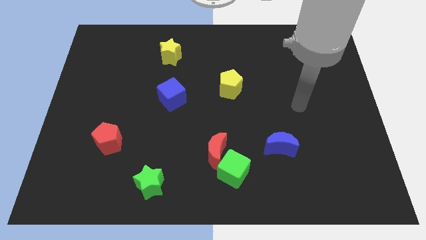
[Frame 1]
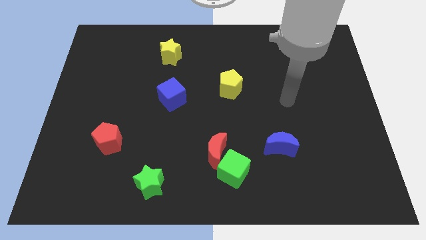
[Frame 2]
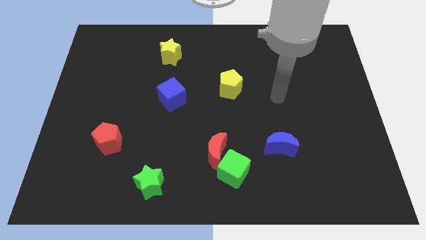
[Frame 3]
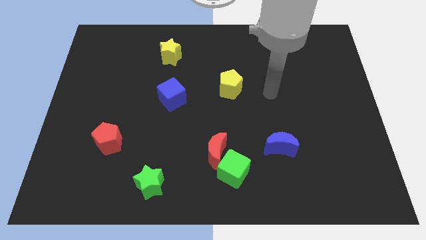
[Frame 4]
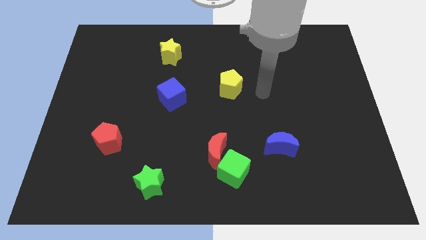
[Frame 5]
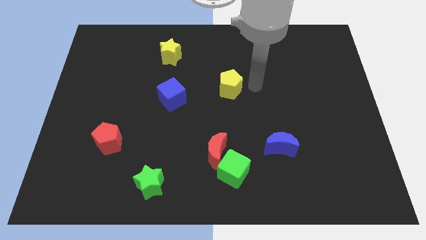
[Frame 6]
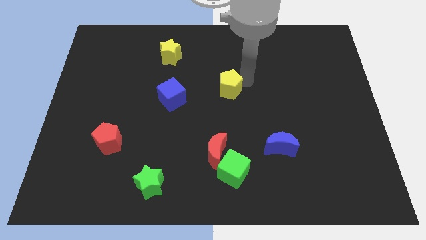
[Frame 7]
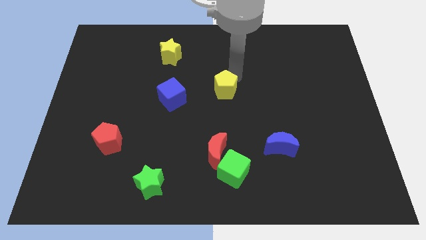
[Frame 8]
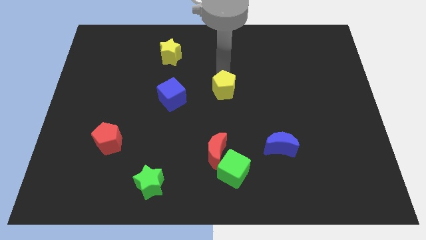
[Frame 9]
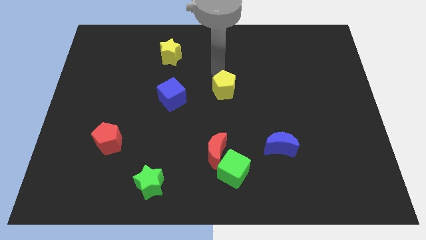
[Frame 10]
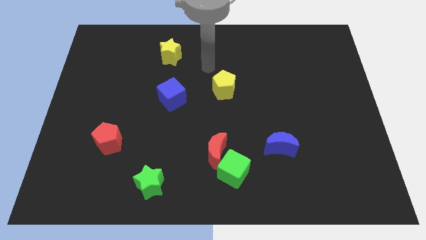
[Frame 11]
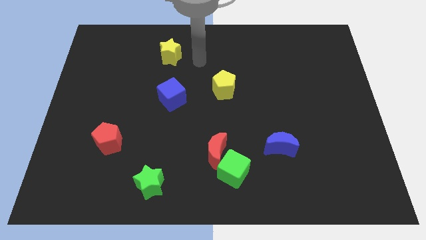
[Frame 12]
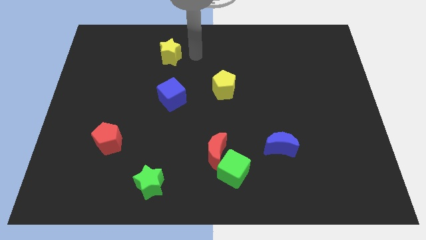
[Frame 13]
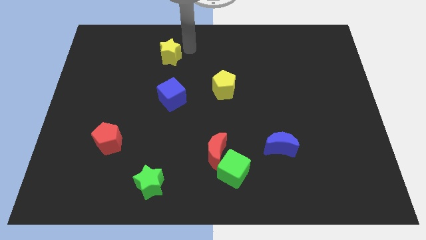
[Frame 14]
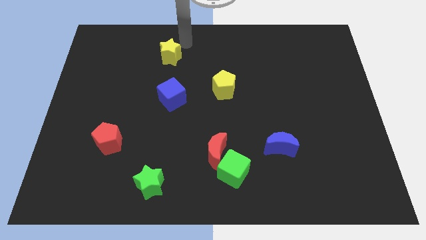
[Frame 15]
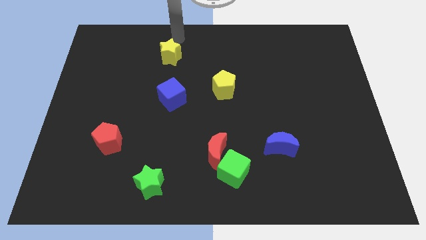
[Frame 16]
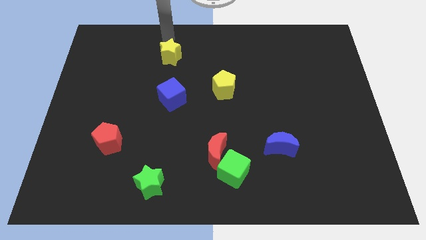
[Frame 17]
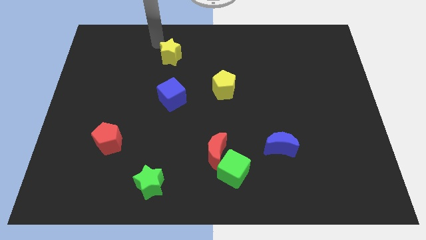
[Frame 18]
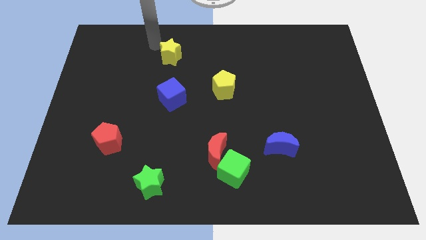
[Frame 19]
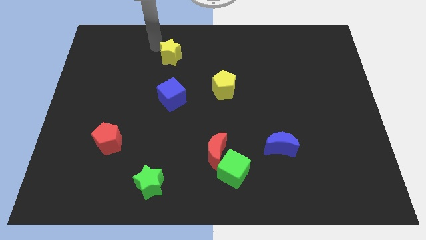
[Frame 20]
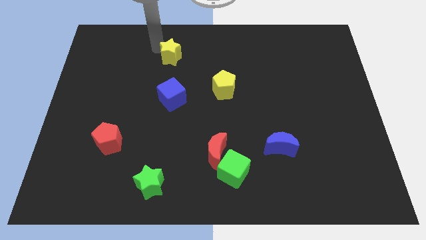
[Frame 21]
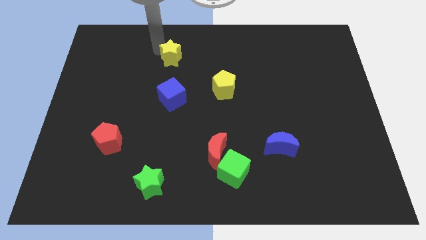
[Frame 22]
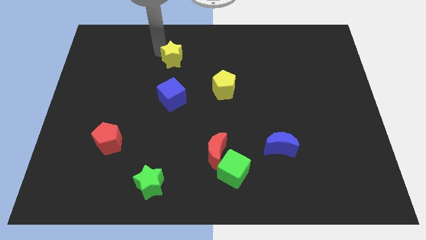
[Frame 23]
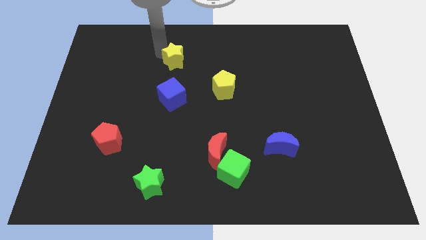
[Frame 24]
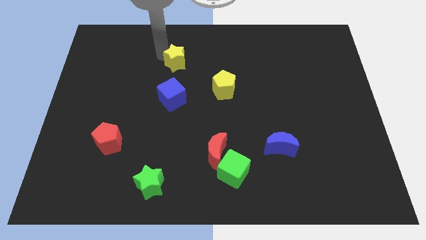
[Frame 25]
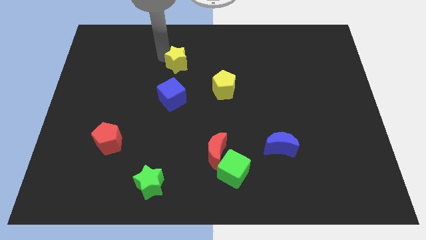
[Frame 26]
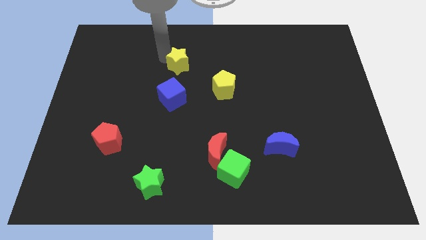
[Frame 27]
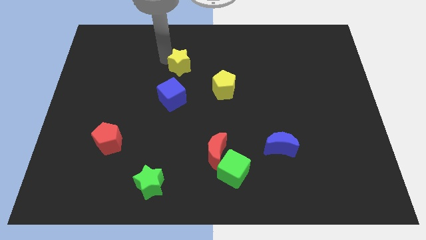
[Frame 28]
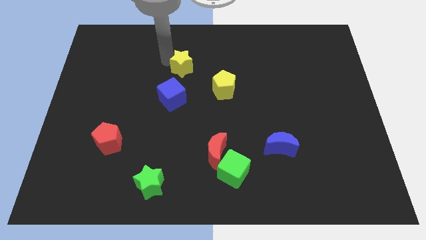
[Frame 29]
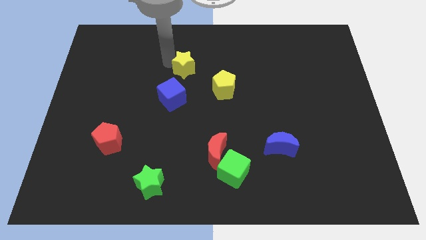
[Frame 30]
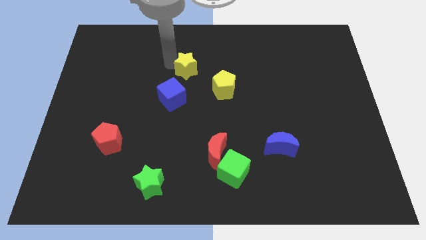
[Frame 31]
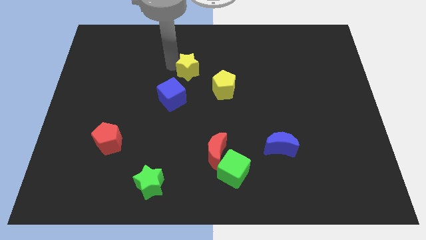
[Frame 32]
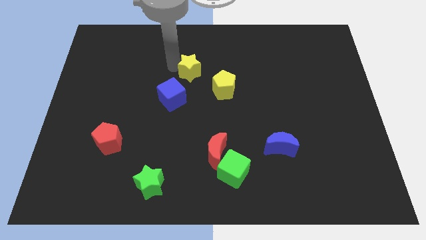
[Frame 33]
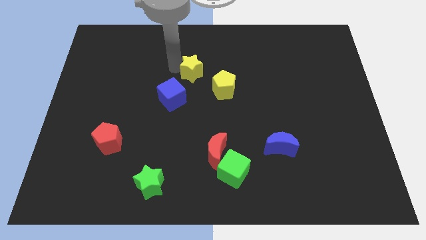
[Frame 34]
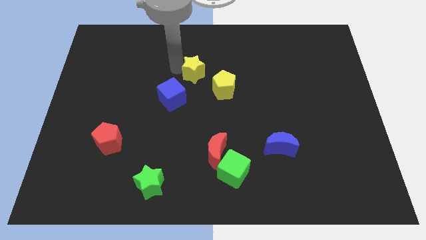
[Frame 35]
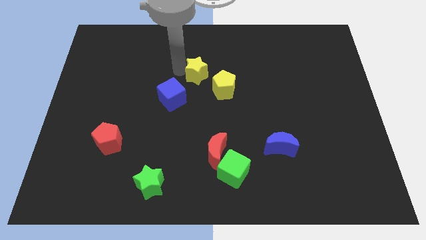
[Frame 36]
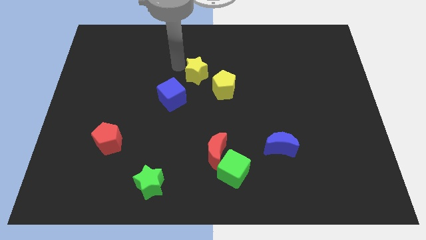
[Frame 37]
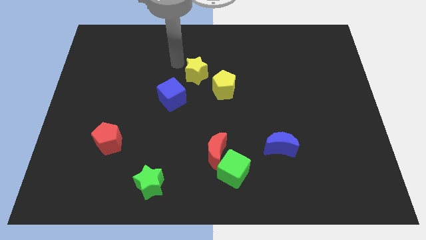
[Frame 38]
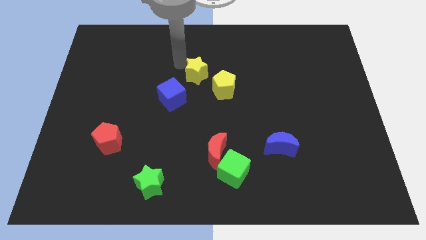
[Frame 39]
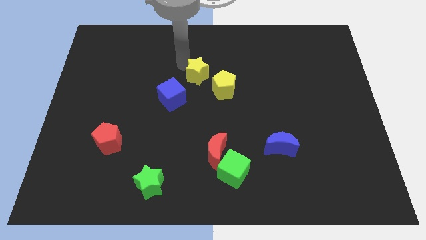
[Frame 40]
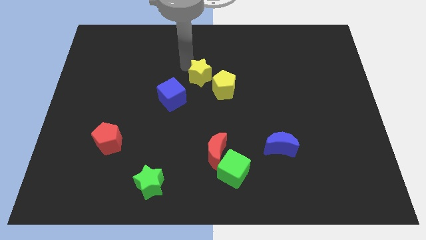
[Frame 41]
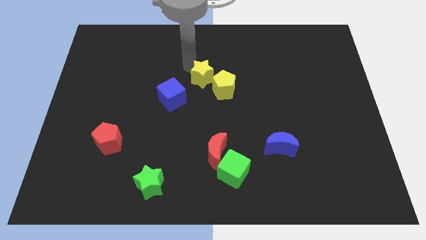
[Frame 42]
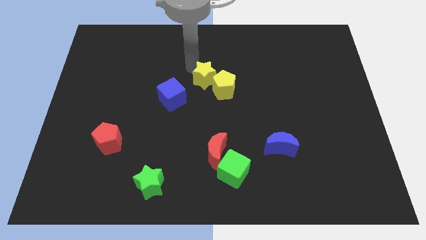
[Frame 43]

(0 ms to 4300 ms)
slide the yellow star towards the yellow pentagon

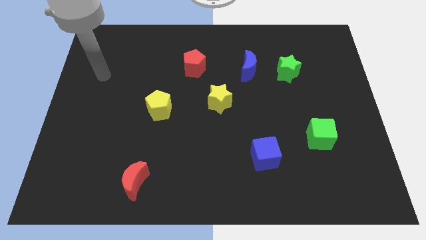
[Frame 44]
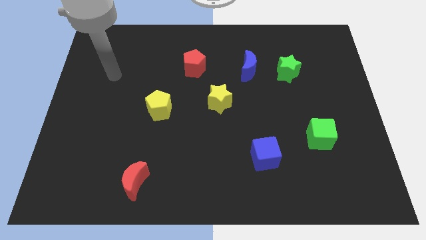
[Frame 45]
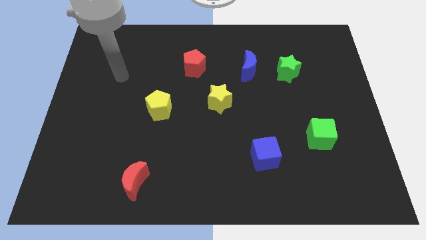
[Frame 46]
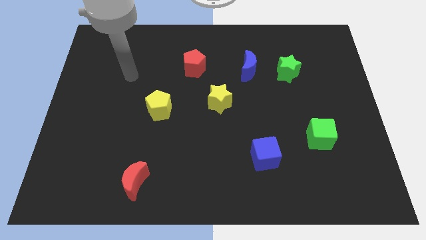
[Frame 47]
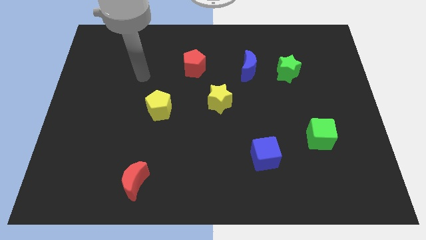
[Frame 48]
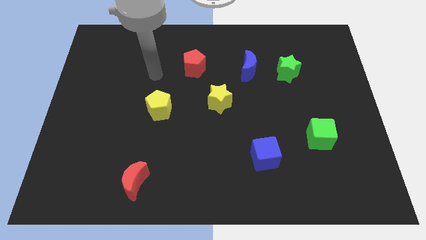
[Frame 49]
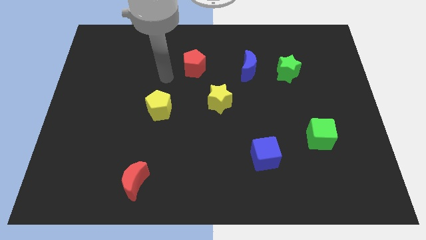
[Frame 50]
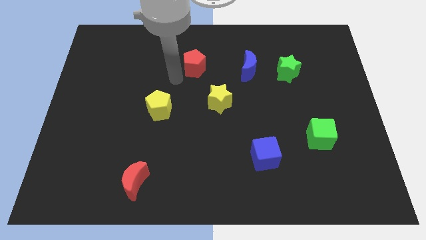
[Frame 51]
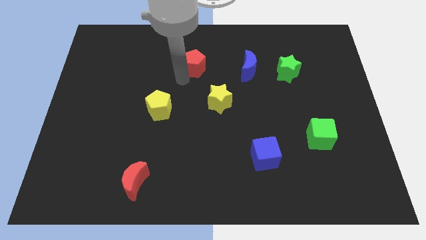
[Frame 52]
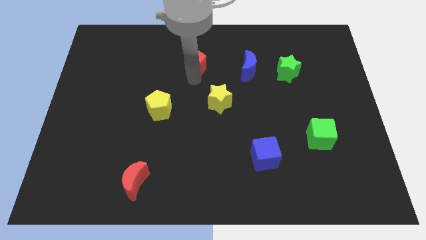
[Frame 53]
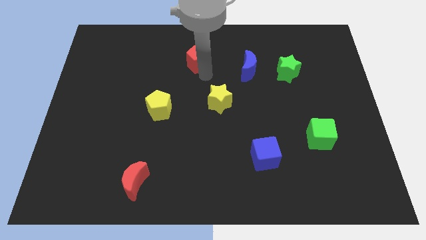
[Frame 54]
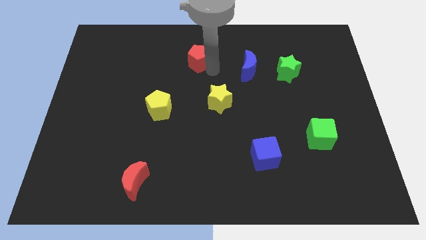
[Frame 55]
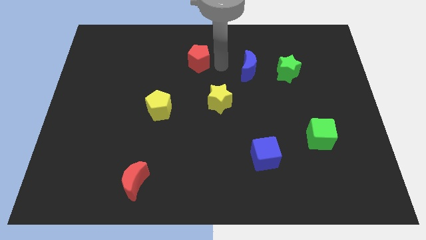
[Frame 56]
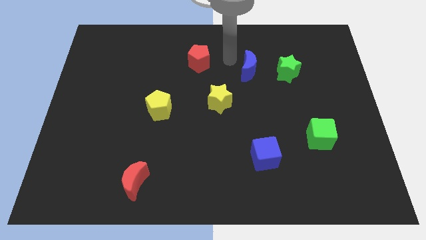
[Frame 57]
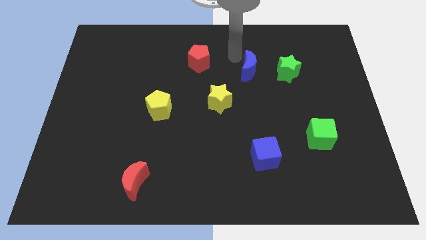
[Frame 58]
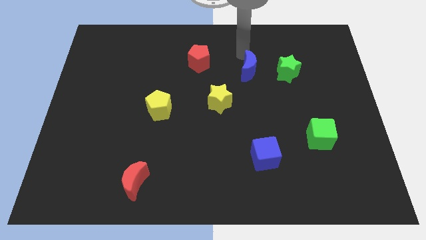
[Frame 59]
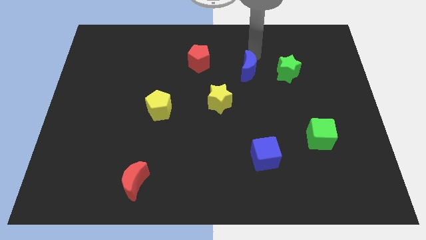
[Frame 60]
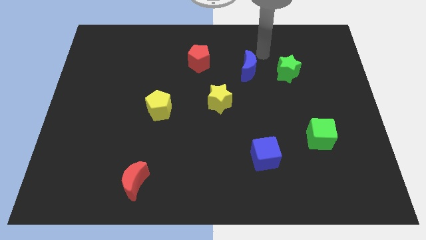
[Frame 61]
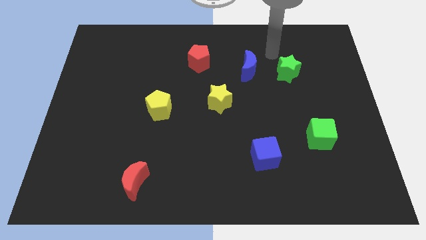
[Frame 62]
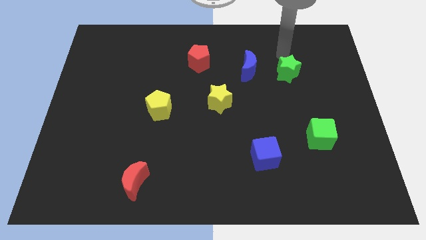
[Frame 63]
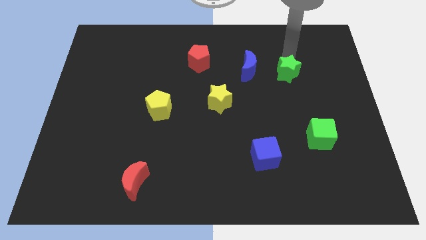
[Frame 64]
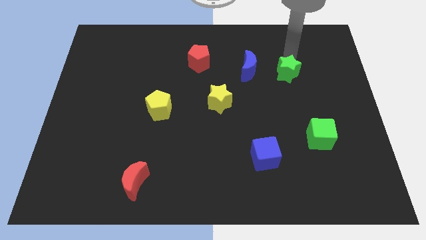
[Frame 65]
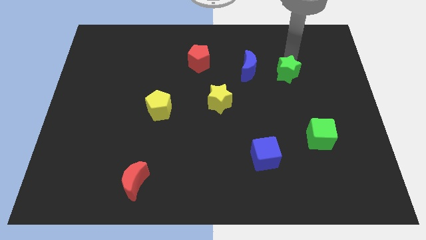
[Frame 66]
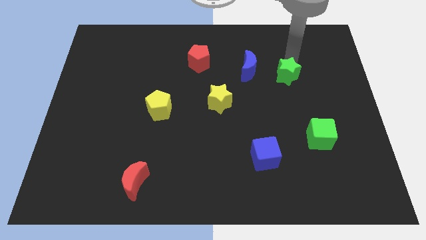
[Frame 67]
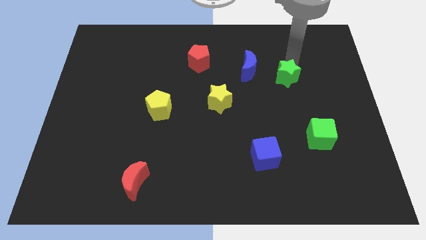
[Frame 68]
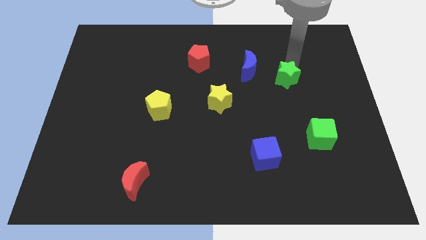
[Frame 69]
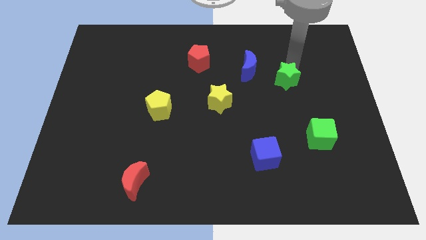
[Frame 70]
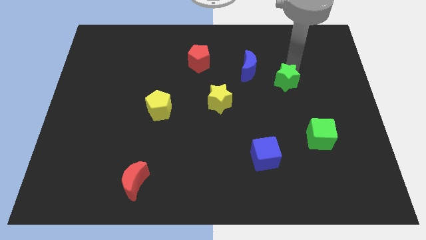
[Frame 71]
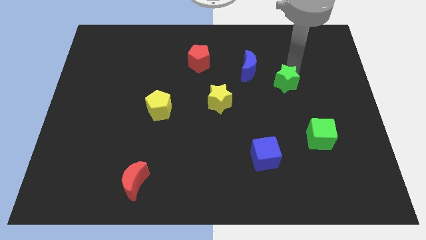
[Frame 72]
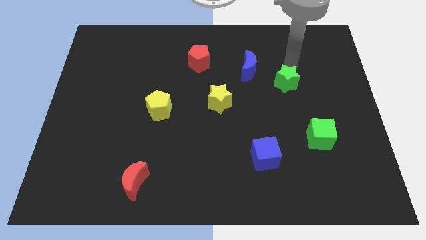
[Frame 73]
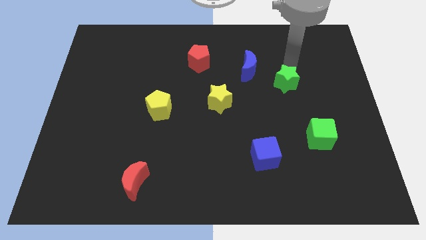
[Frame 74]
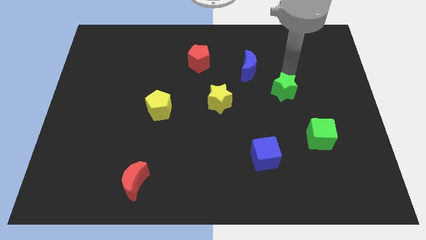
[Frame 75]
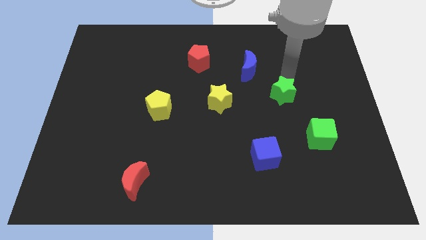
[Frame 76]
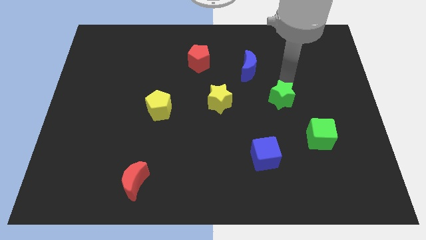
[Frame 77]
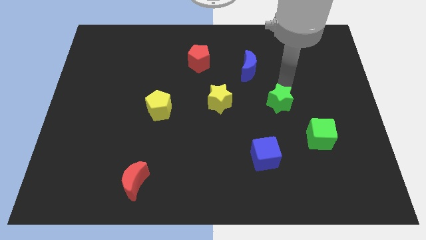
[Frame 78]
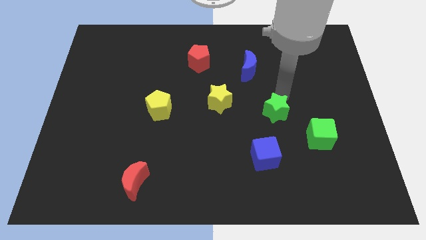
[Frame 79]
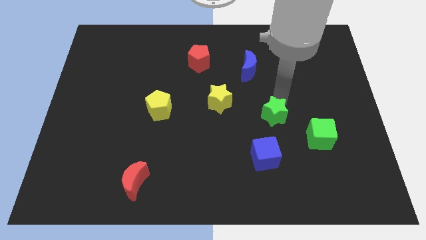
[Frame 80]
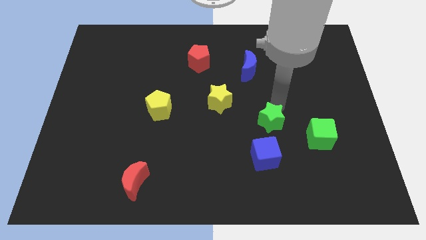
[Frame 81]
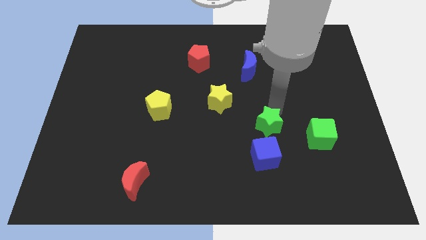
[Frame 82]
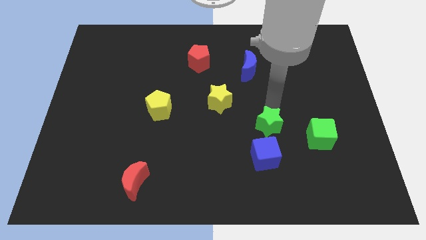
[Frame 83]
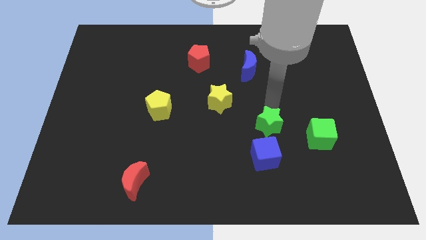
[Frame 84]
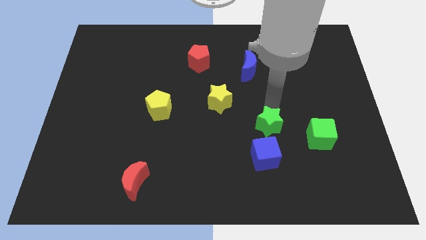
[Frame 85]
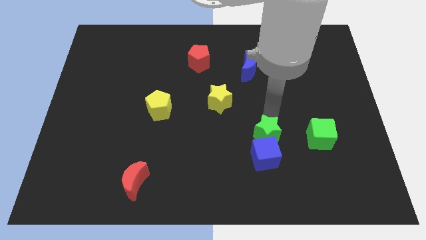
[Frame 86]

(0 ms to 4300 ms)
push the green star towards the blue cube
